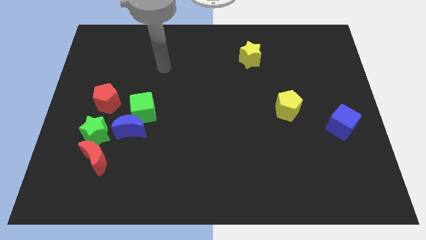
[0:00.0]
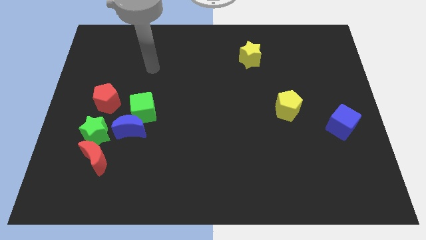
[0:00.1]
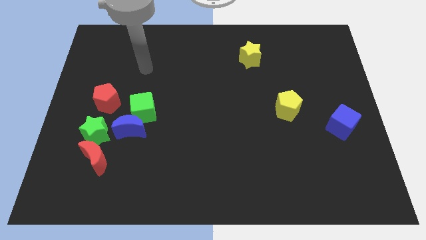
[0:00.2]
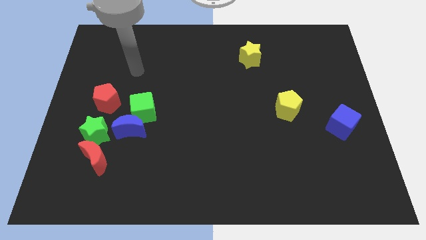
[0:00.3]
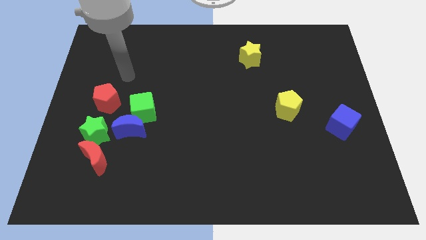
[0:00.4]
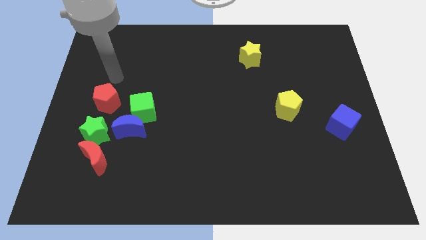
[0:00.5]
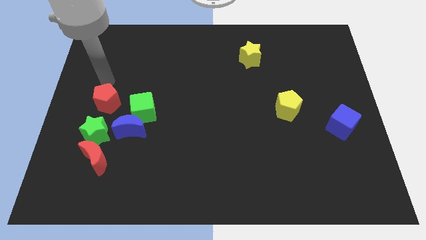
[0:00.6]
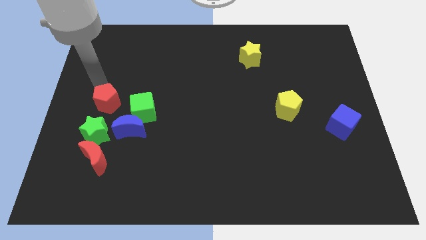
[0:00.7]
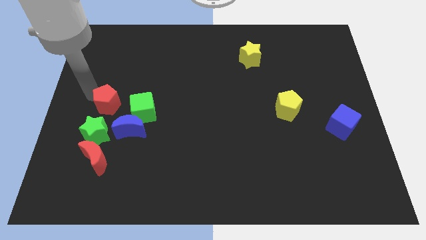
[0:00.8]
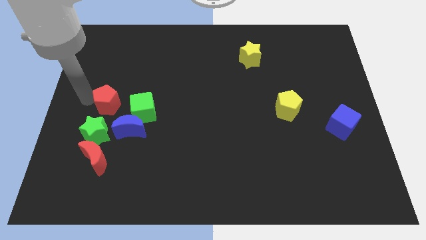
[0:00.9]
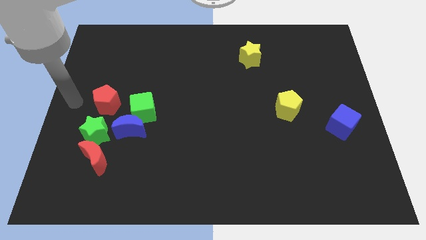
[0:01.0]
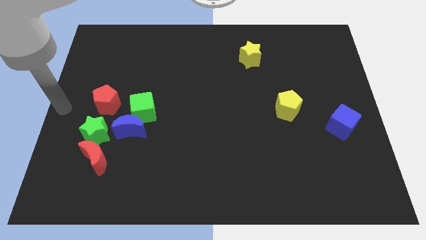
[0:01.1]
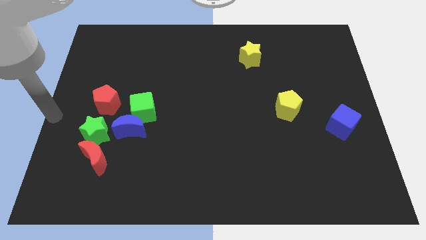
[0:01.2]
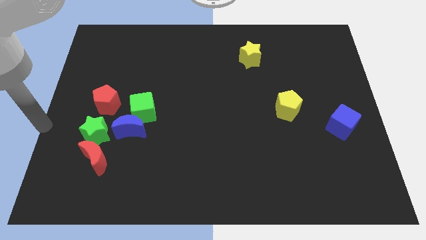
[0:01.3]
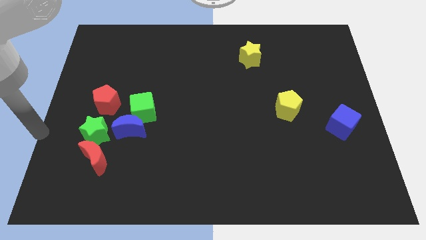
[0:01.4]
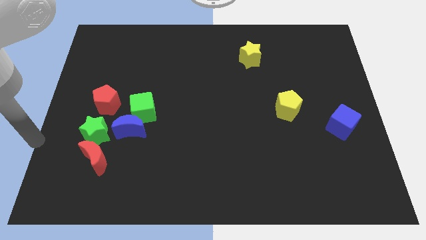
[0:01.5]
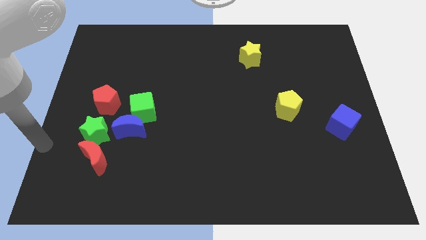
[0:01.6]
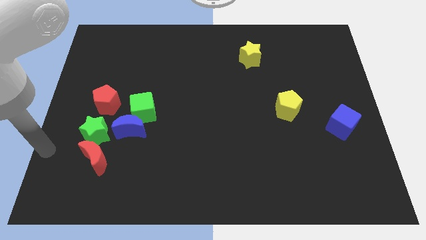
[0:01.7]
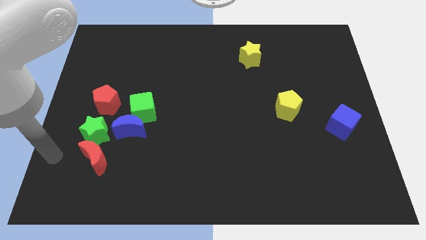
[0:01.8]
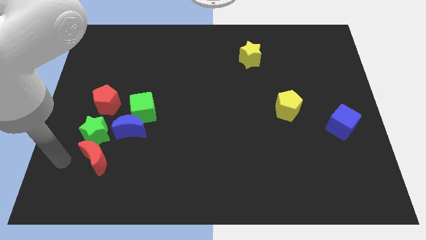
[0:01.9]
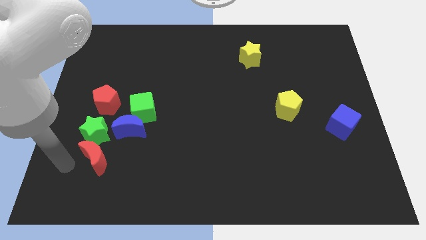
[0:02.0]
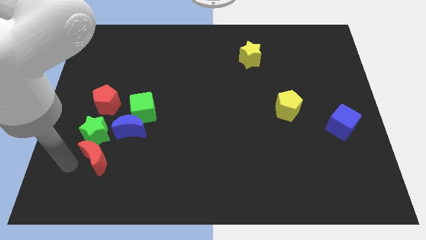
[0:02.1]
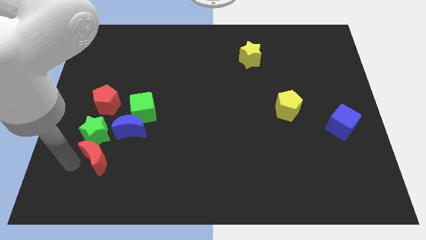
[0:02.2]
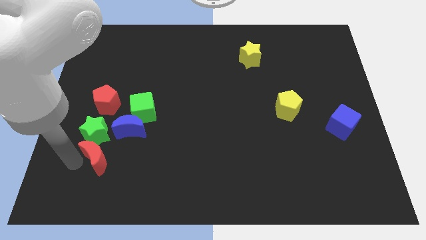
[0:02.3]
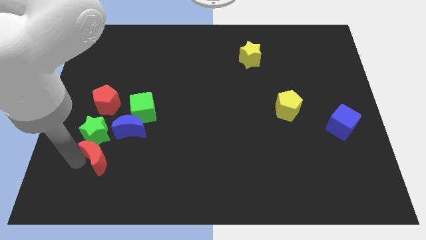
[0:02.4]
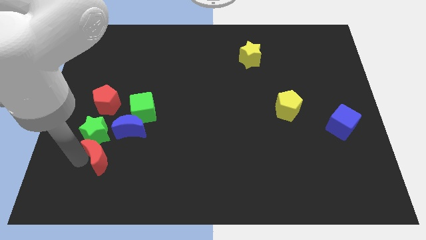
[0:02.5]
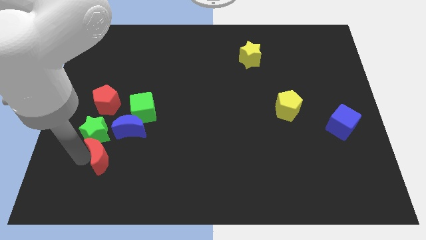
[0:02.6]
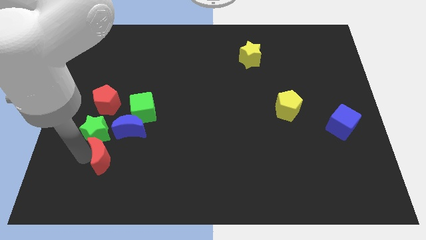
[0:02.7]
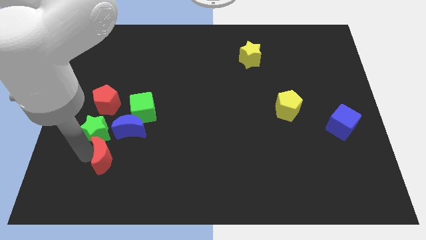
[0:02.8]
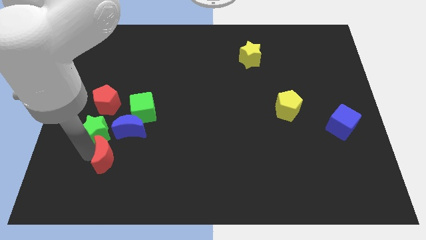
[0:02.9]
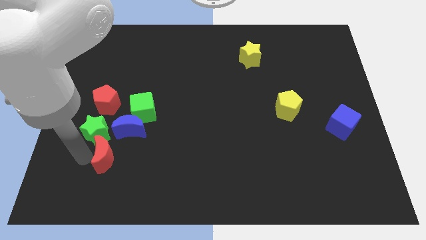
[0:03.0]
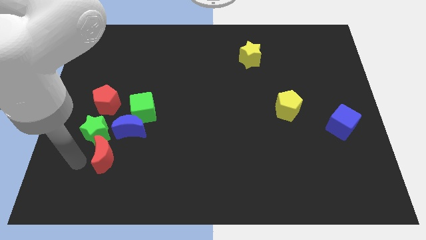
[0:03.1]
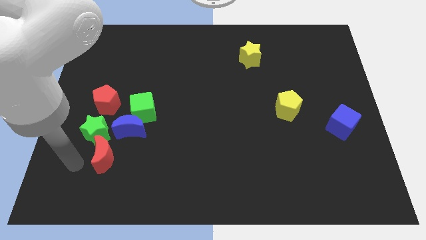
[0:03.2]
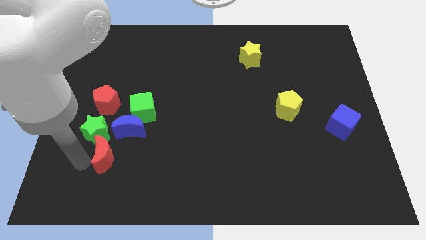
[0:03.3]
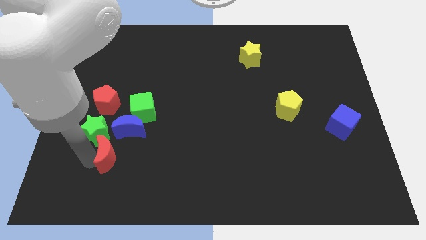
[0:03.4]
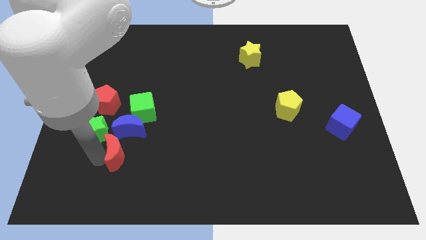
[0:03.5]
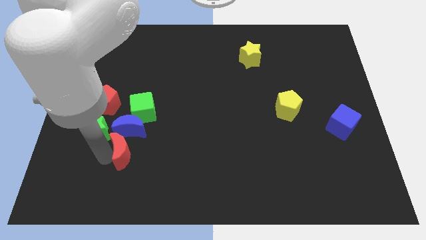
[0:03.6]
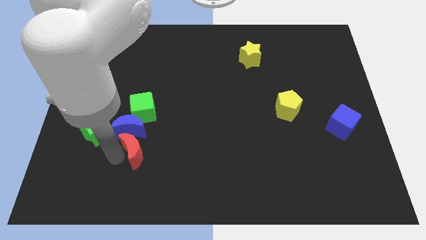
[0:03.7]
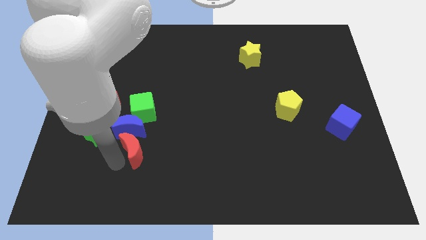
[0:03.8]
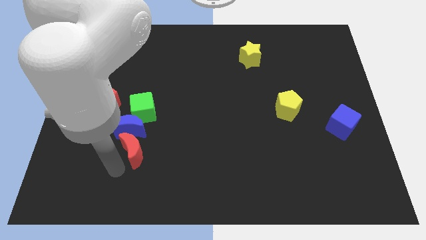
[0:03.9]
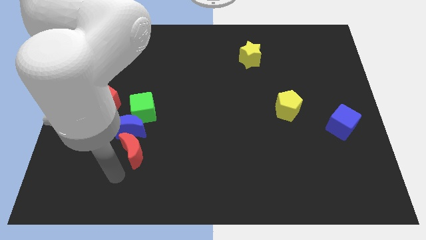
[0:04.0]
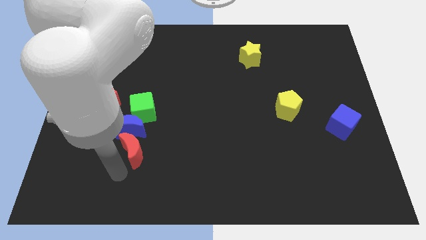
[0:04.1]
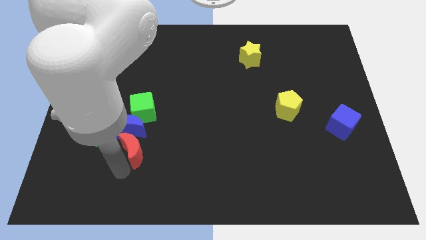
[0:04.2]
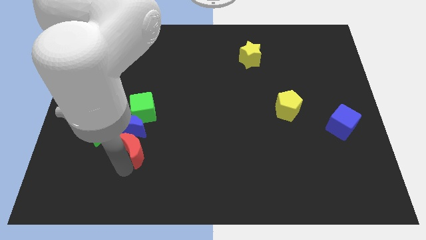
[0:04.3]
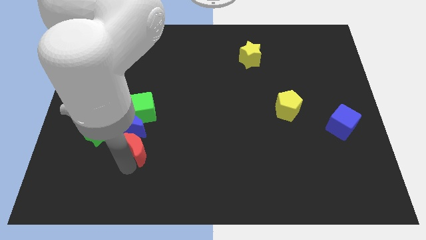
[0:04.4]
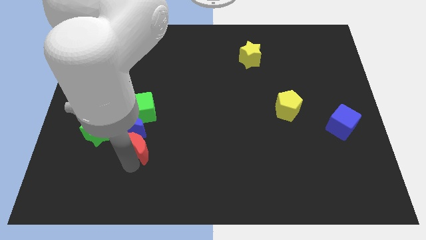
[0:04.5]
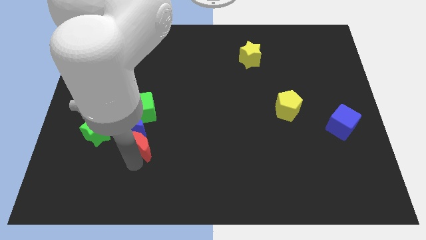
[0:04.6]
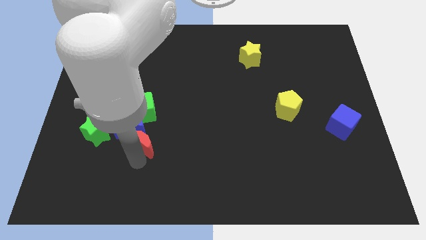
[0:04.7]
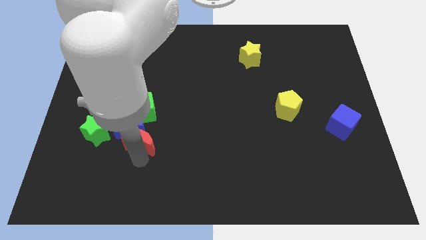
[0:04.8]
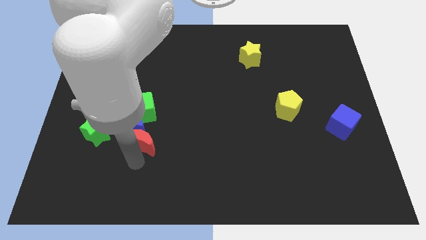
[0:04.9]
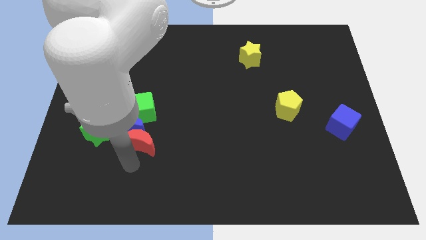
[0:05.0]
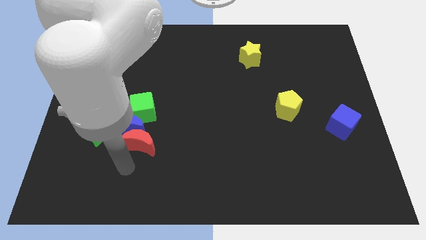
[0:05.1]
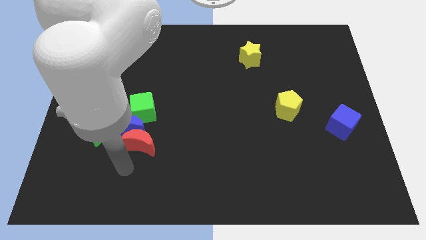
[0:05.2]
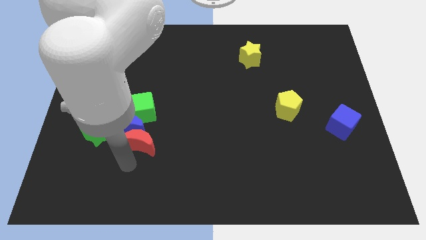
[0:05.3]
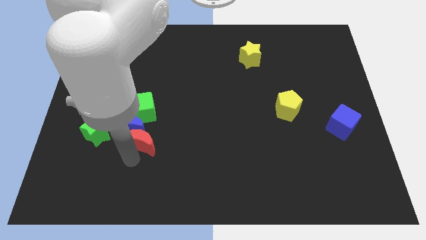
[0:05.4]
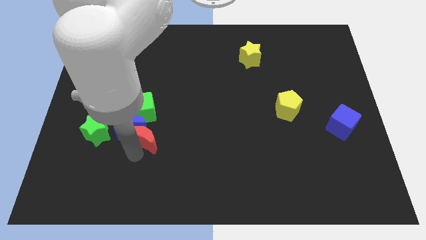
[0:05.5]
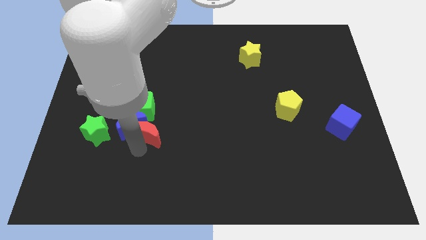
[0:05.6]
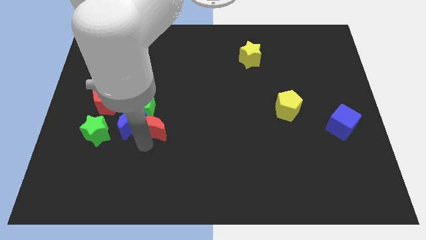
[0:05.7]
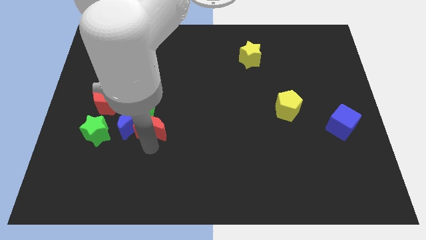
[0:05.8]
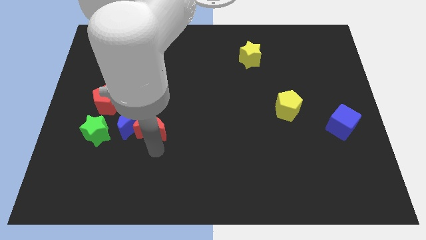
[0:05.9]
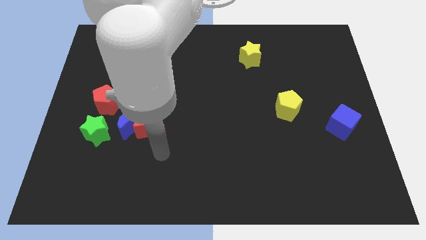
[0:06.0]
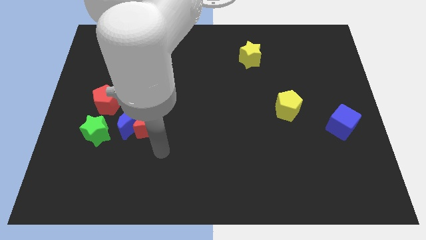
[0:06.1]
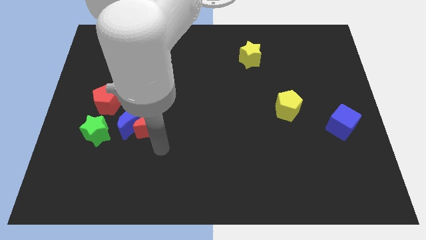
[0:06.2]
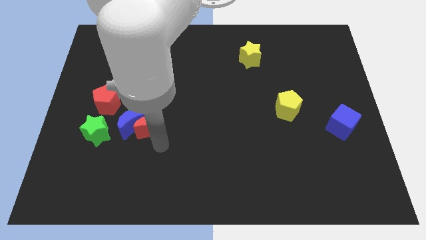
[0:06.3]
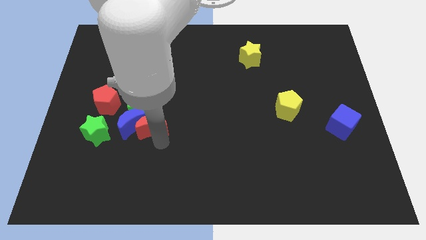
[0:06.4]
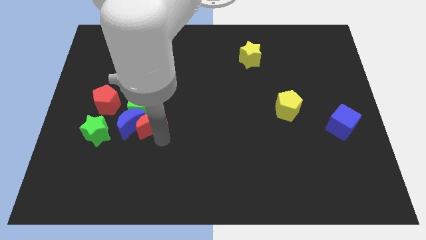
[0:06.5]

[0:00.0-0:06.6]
move the red moon close to the green cube
